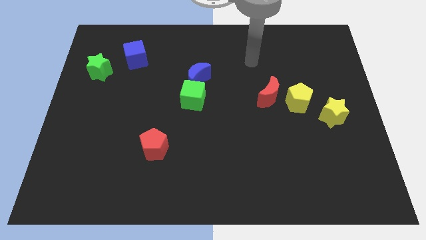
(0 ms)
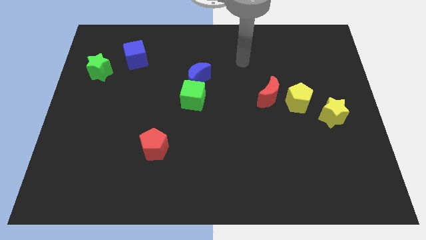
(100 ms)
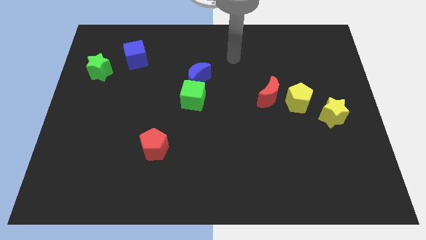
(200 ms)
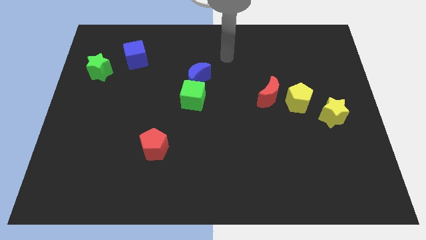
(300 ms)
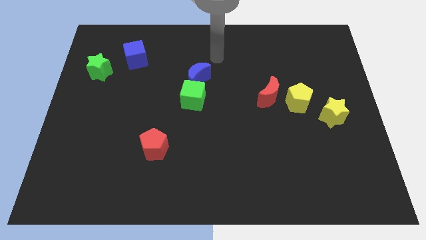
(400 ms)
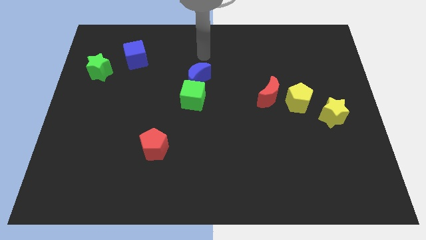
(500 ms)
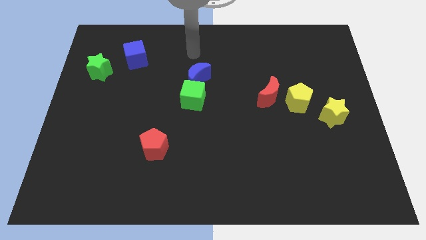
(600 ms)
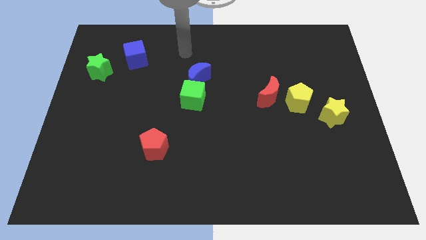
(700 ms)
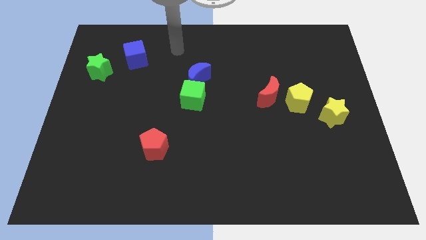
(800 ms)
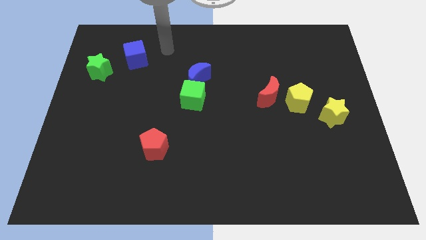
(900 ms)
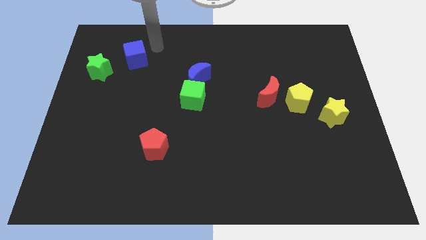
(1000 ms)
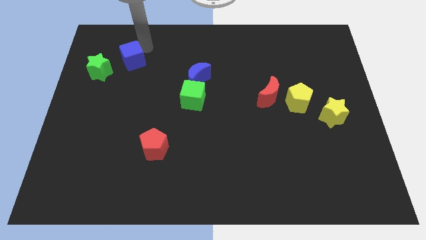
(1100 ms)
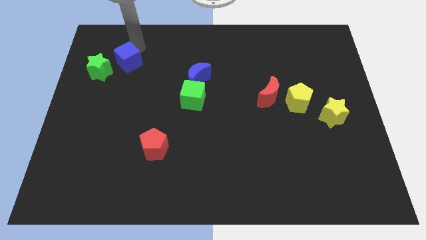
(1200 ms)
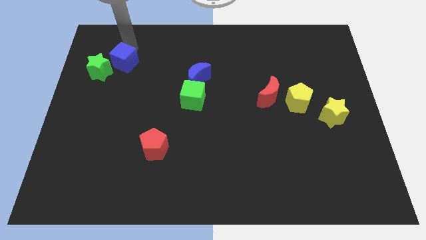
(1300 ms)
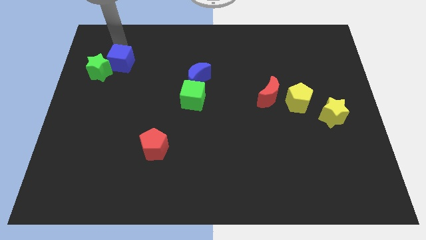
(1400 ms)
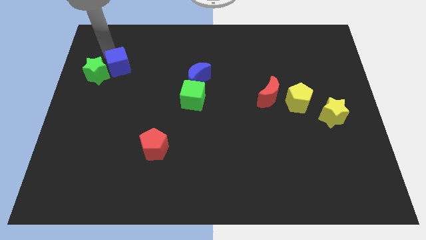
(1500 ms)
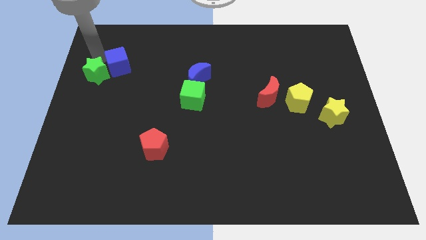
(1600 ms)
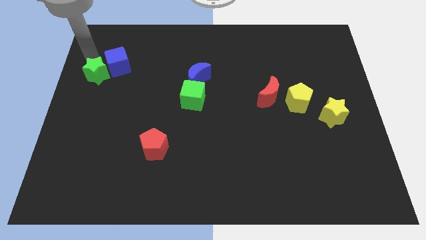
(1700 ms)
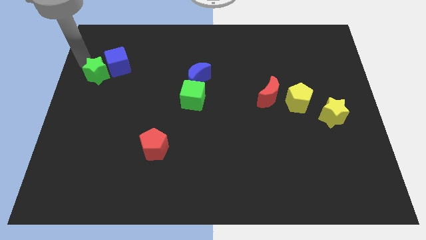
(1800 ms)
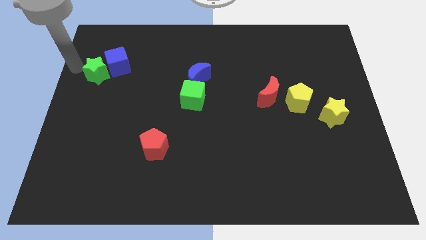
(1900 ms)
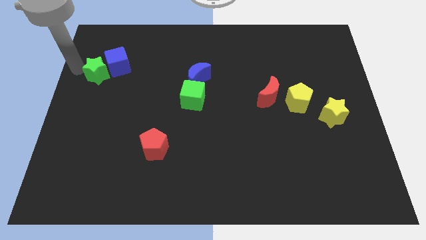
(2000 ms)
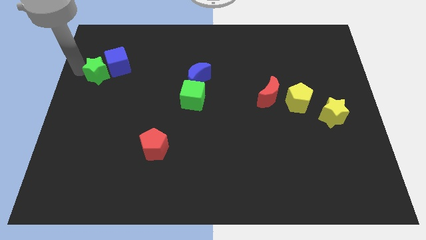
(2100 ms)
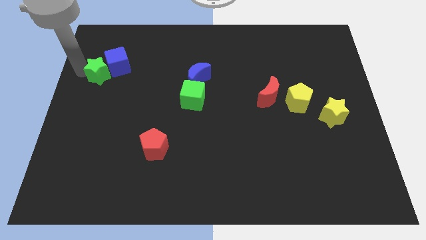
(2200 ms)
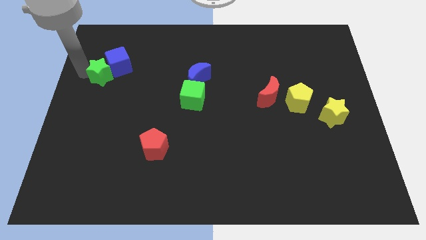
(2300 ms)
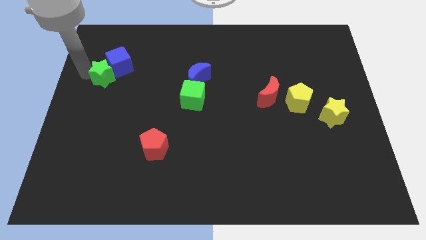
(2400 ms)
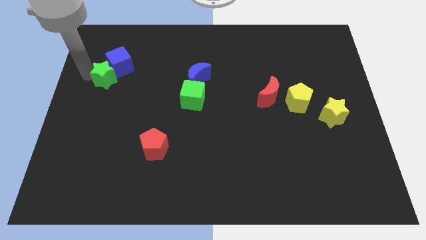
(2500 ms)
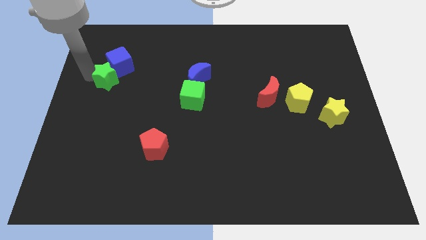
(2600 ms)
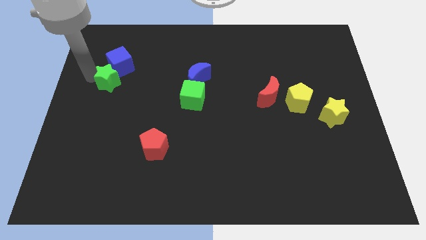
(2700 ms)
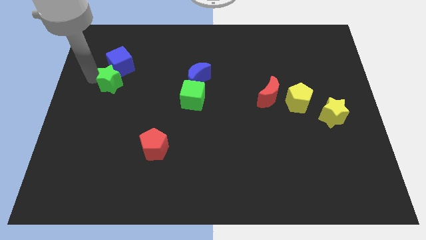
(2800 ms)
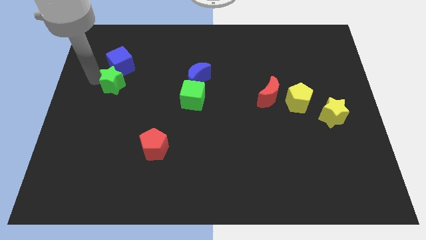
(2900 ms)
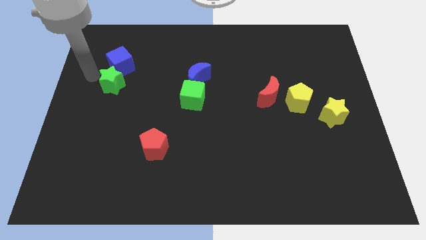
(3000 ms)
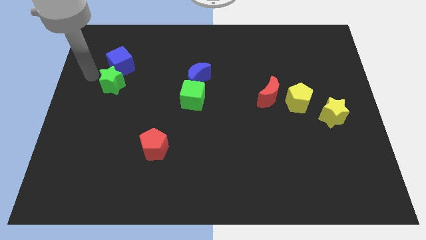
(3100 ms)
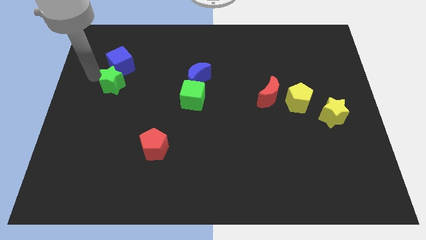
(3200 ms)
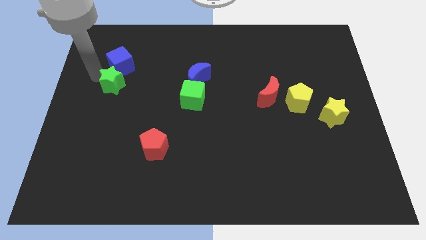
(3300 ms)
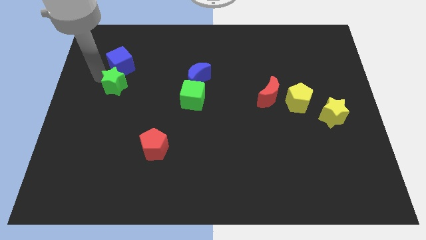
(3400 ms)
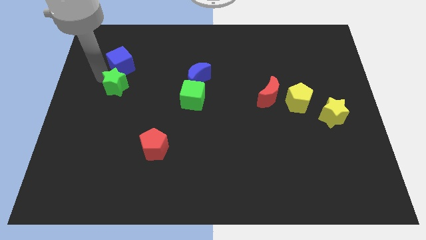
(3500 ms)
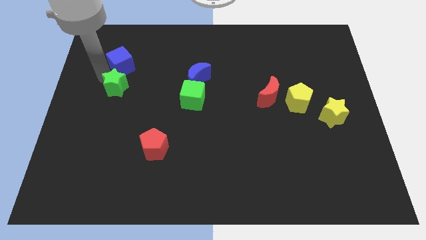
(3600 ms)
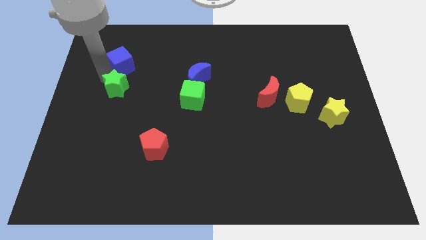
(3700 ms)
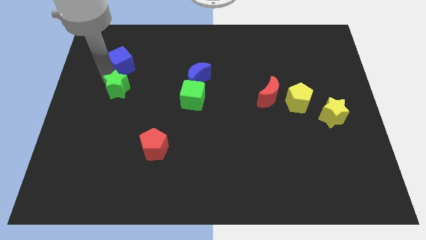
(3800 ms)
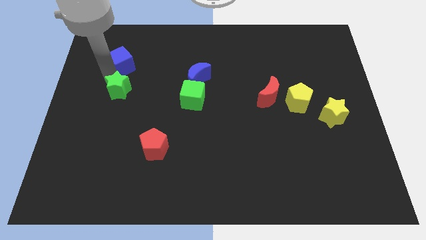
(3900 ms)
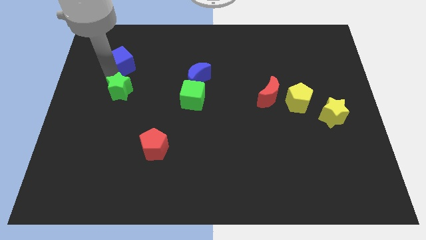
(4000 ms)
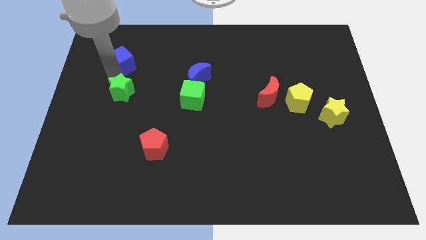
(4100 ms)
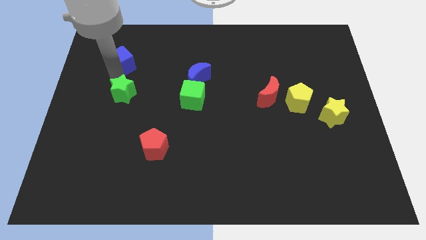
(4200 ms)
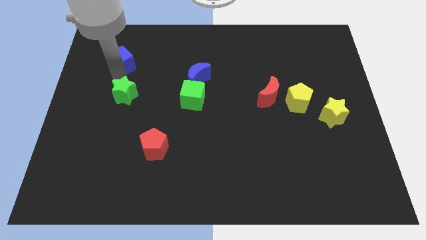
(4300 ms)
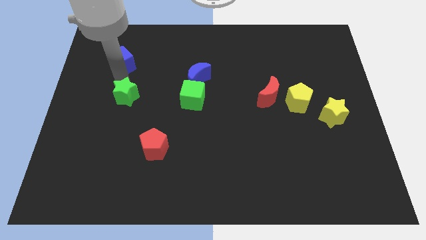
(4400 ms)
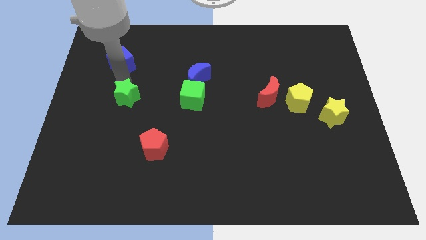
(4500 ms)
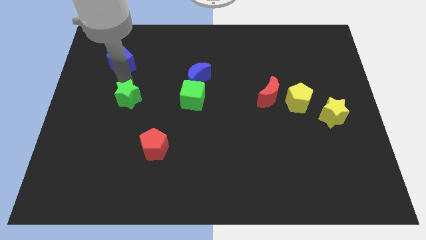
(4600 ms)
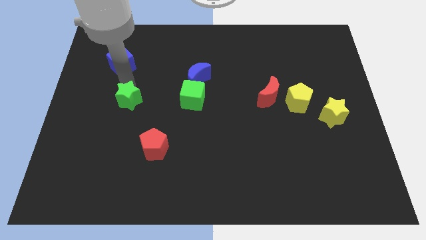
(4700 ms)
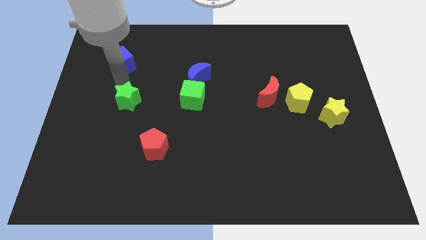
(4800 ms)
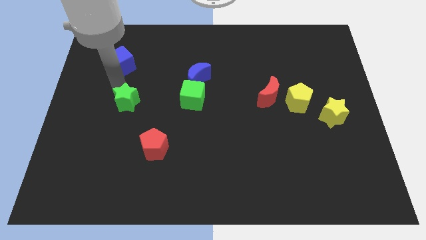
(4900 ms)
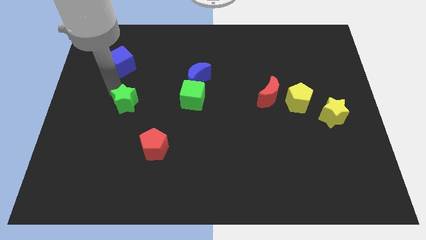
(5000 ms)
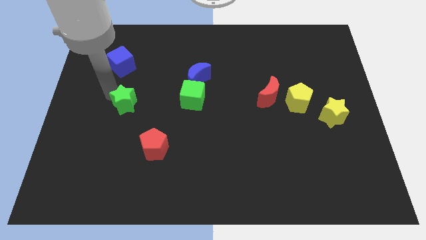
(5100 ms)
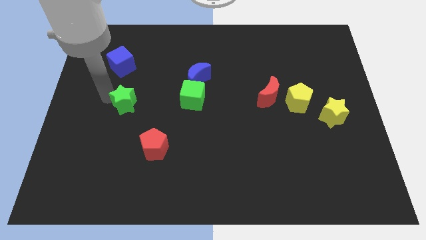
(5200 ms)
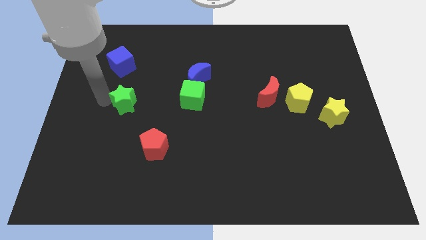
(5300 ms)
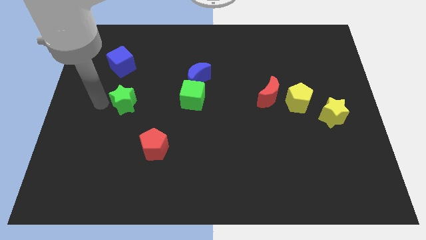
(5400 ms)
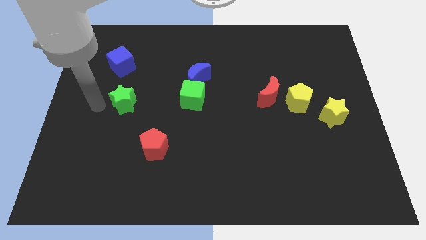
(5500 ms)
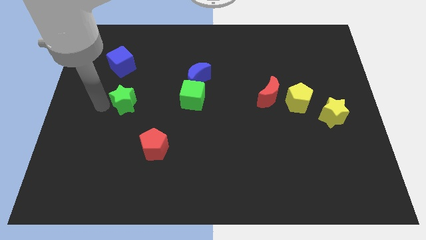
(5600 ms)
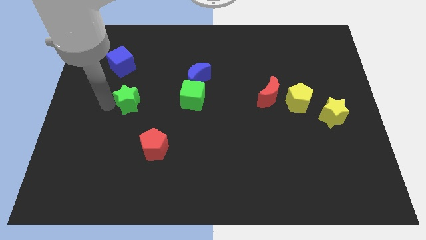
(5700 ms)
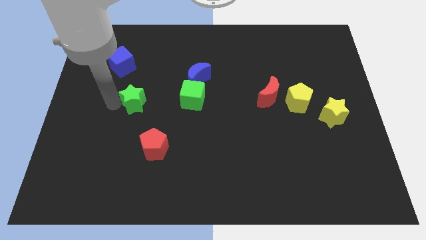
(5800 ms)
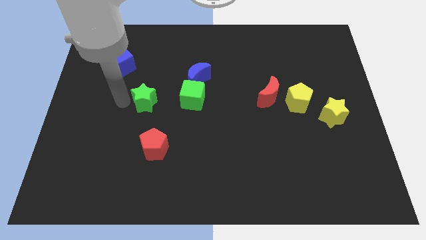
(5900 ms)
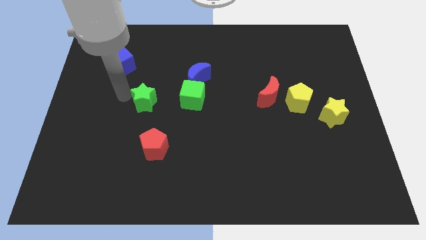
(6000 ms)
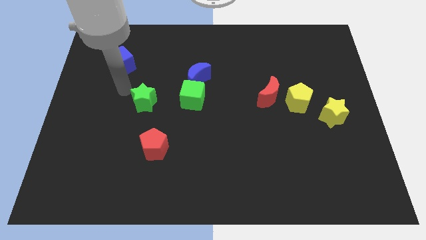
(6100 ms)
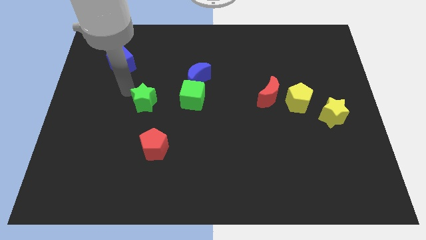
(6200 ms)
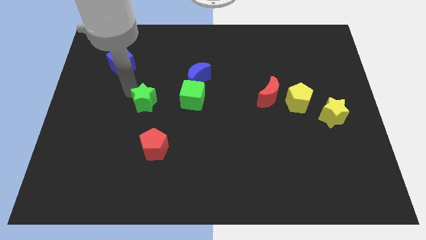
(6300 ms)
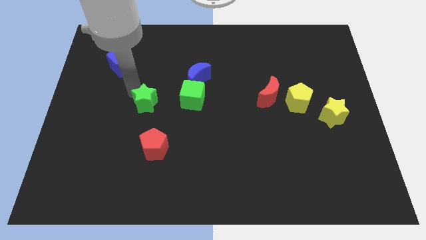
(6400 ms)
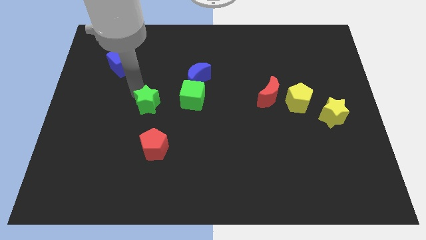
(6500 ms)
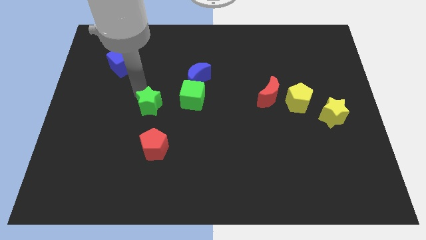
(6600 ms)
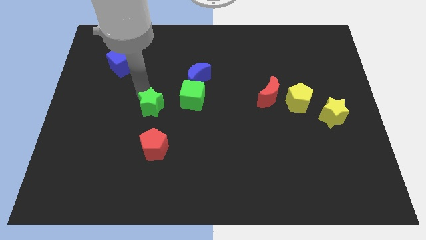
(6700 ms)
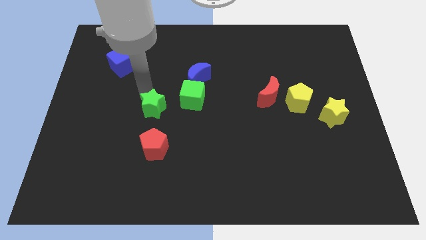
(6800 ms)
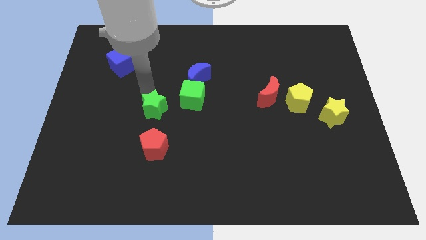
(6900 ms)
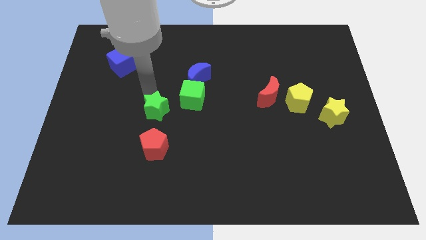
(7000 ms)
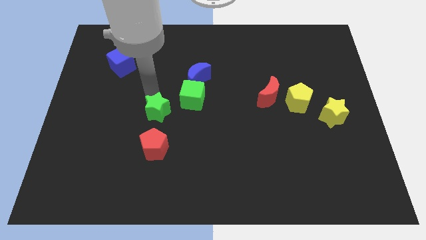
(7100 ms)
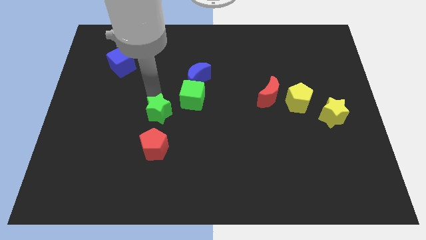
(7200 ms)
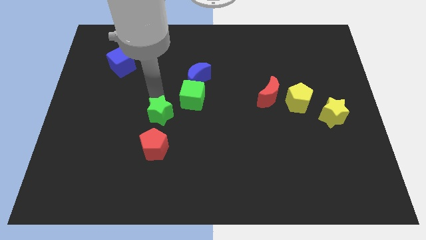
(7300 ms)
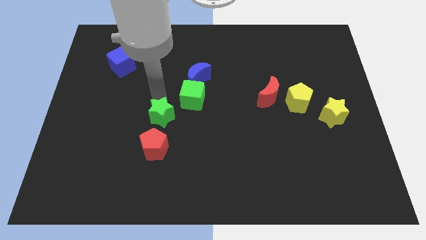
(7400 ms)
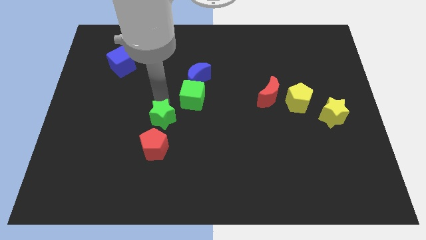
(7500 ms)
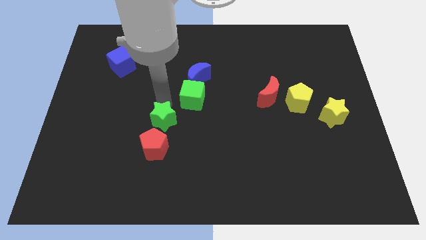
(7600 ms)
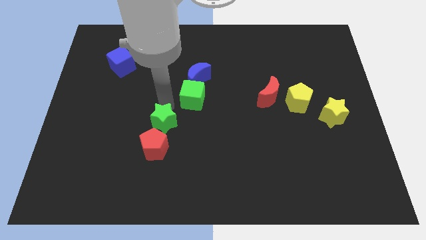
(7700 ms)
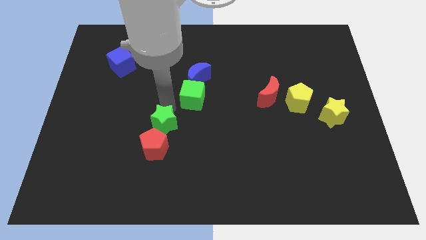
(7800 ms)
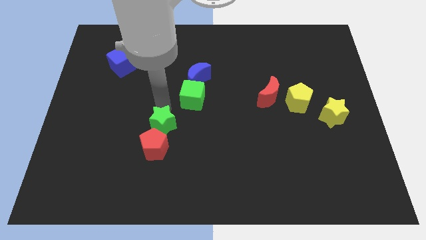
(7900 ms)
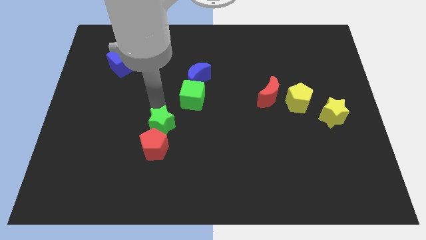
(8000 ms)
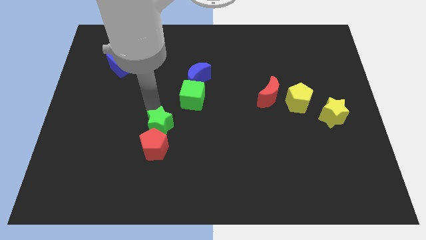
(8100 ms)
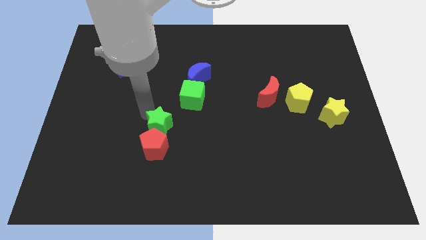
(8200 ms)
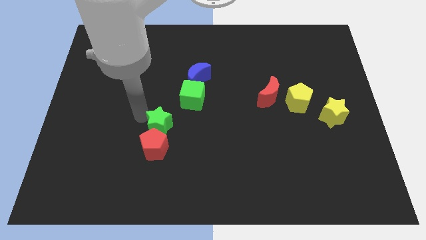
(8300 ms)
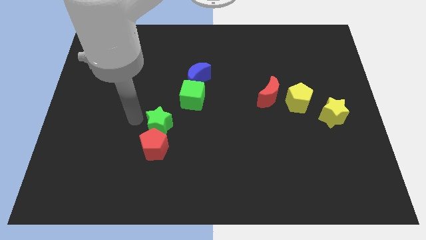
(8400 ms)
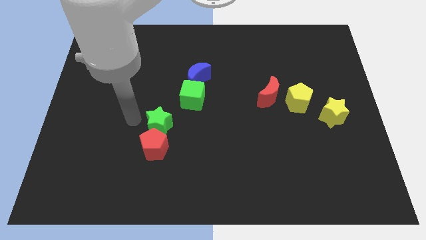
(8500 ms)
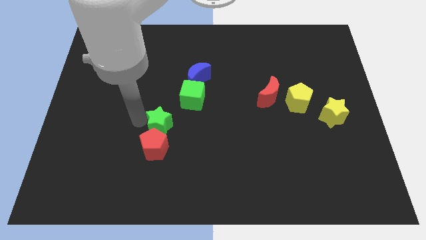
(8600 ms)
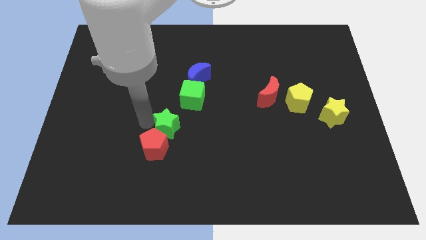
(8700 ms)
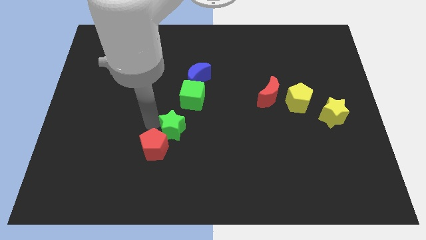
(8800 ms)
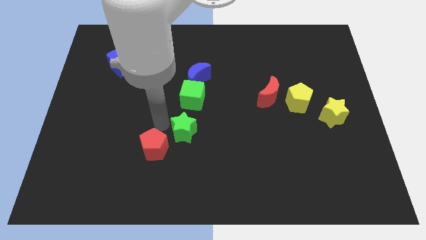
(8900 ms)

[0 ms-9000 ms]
slide the green star to the right of the red pentagon
